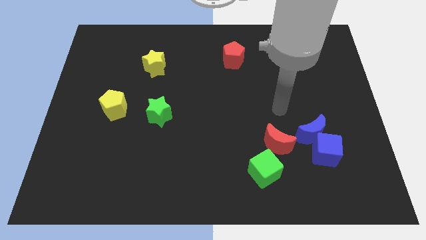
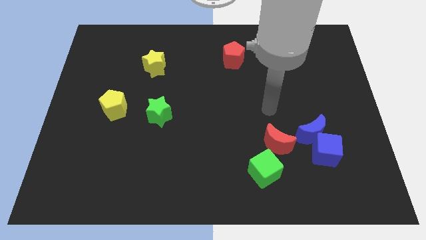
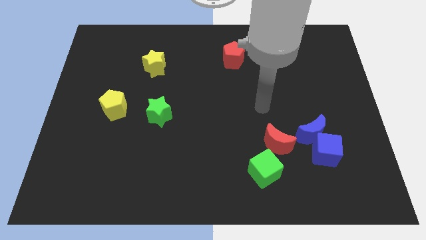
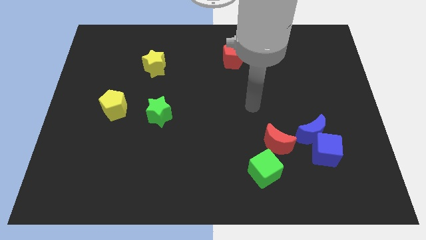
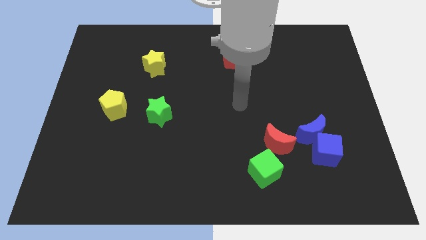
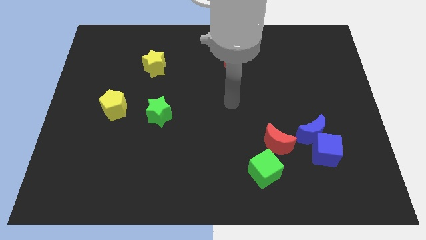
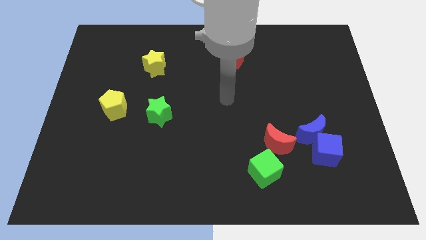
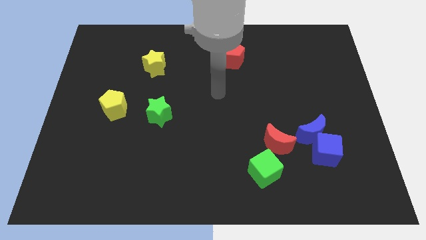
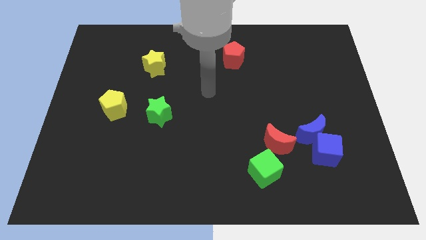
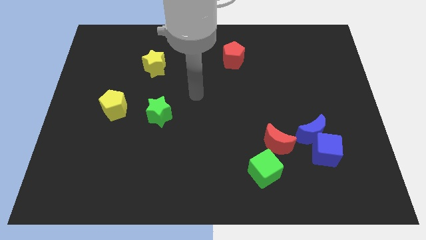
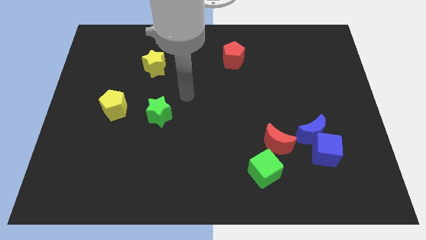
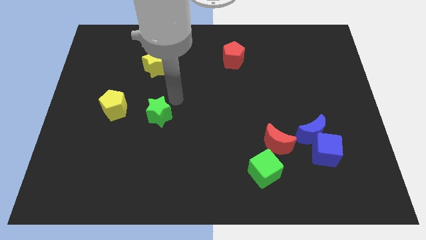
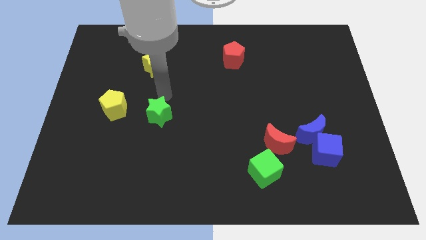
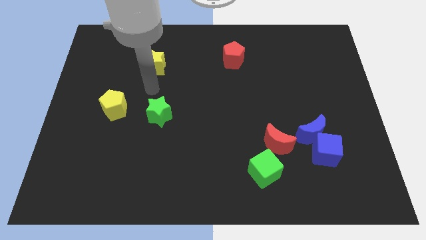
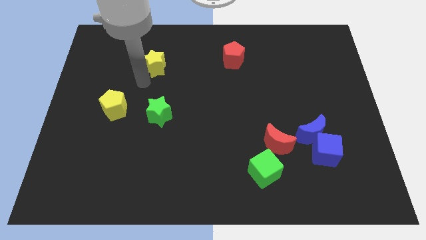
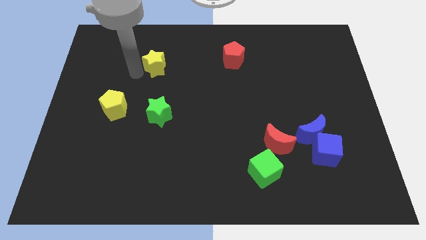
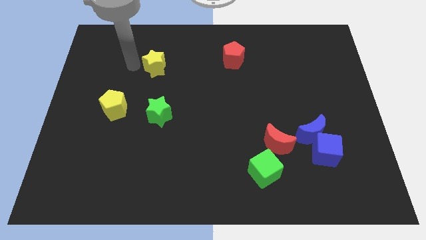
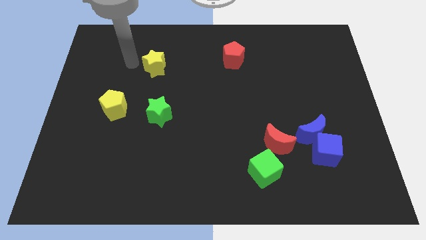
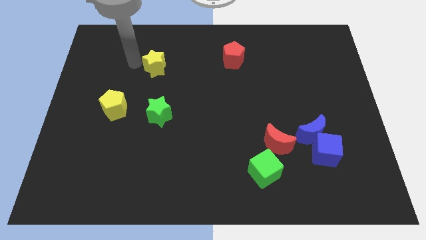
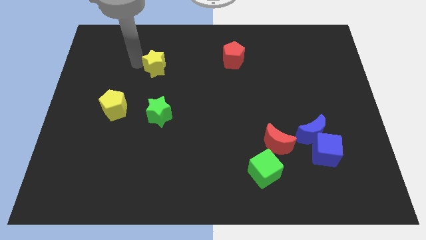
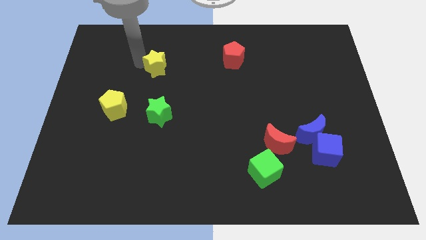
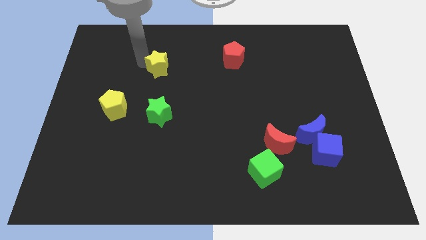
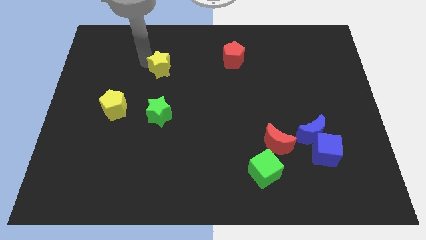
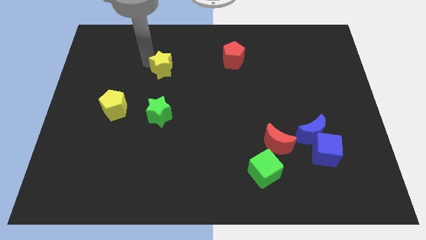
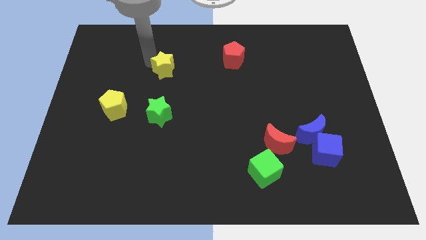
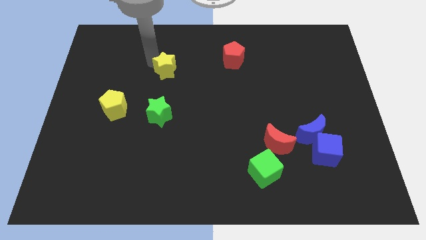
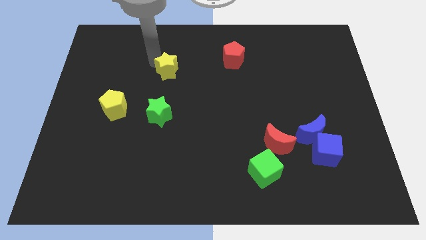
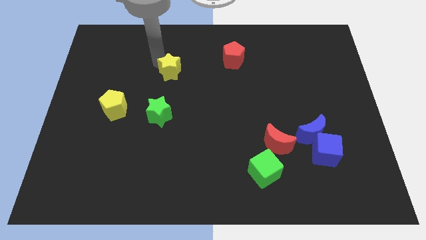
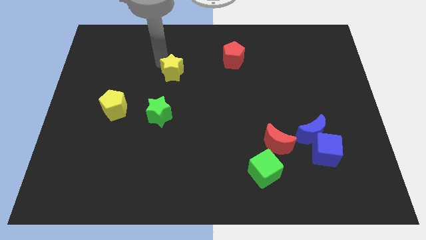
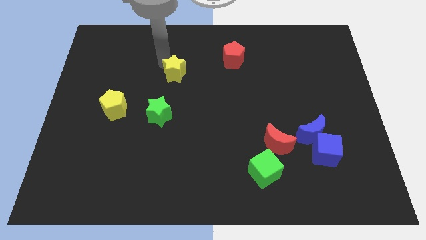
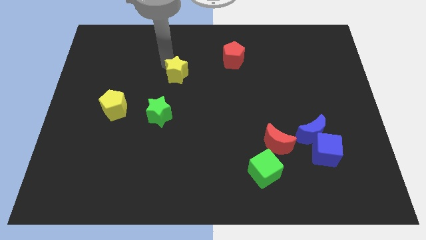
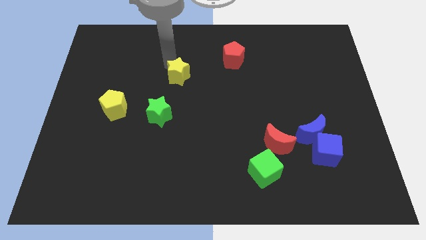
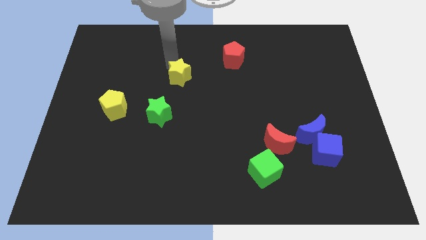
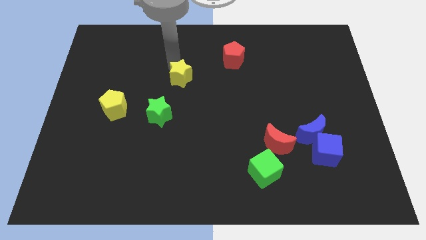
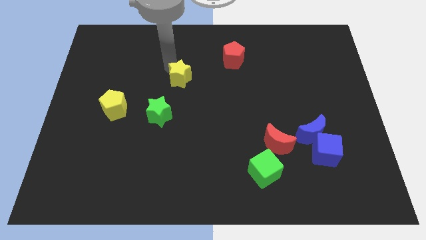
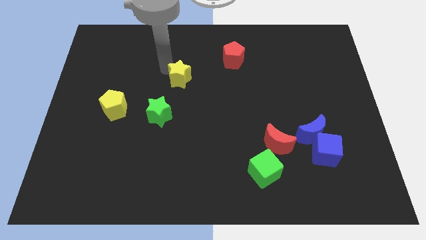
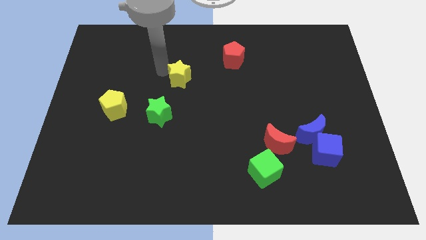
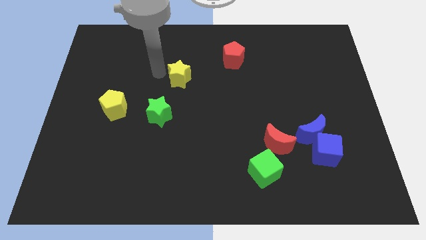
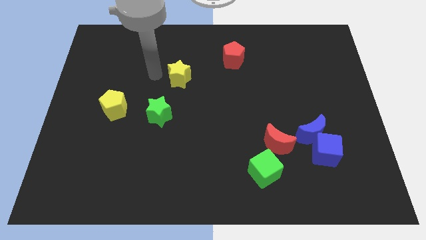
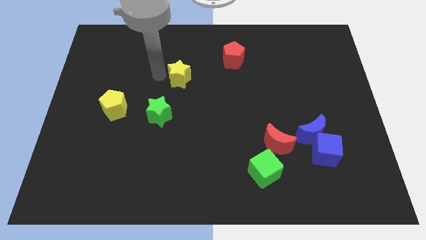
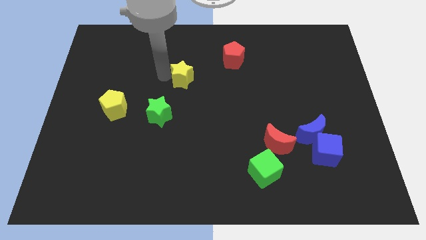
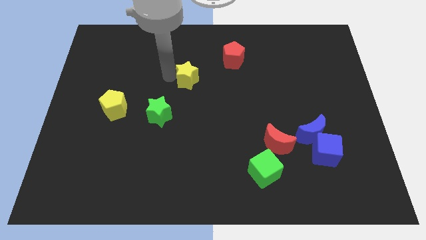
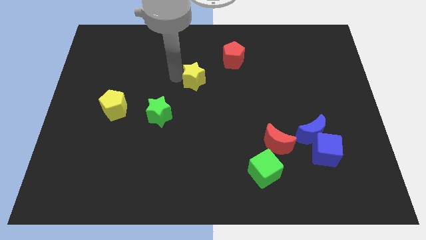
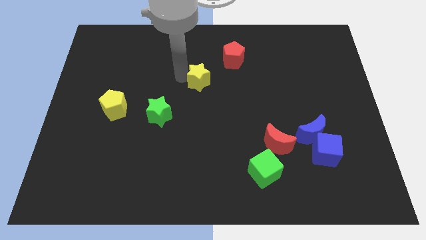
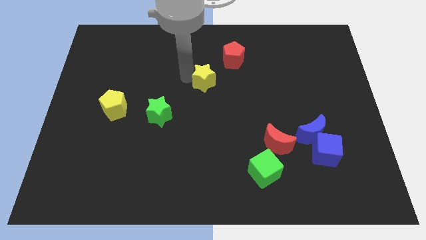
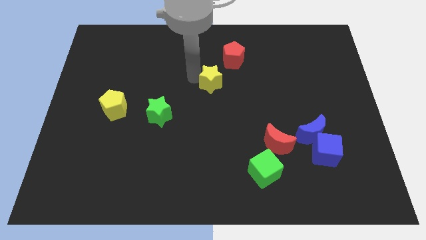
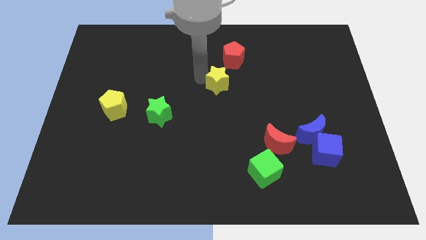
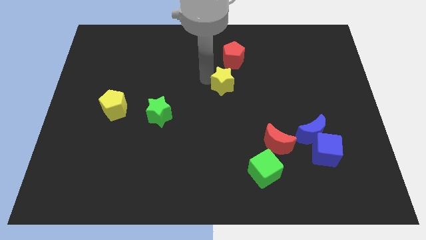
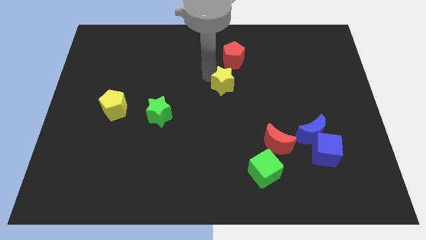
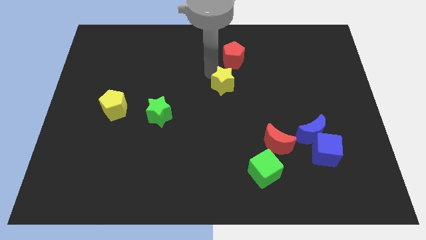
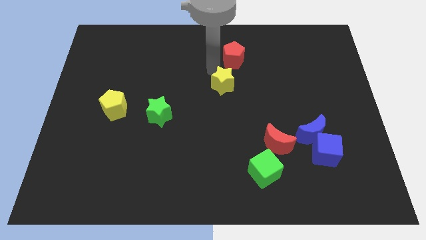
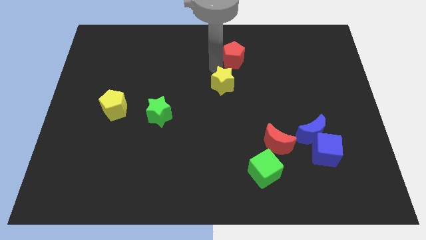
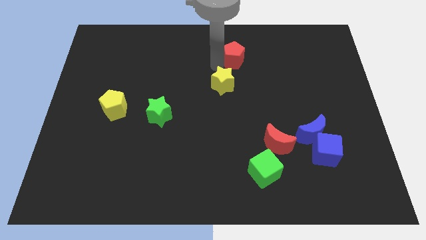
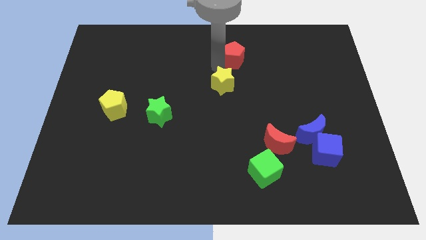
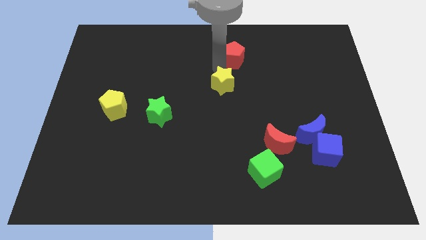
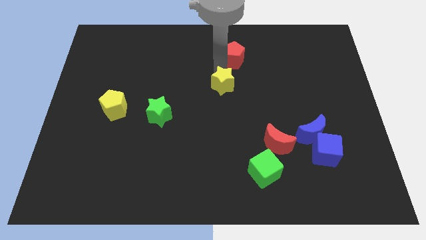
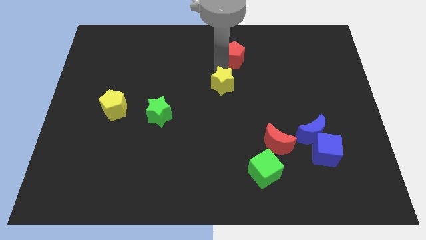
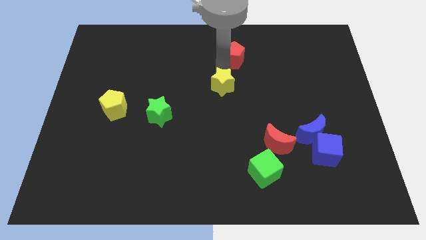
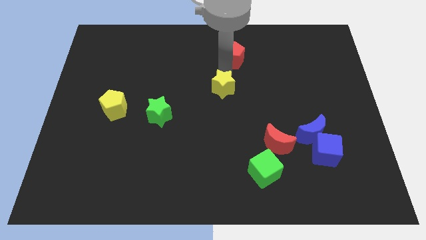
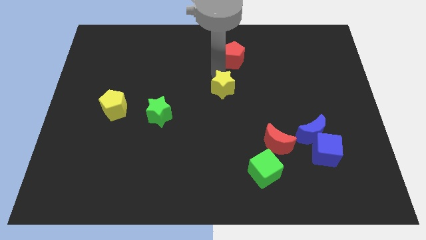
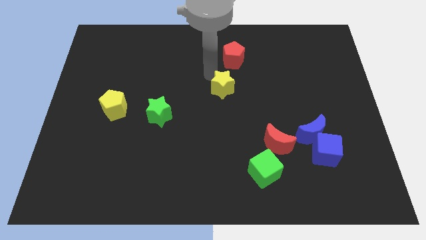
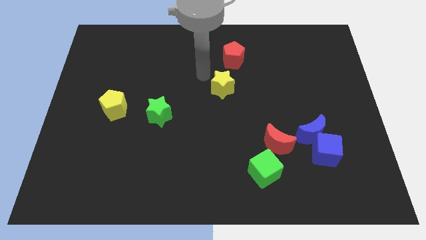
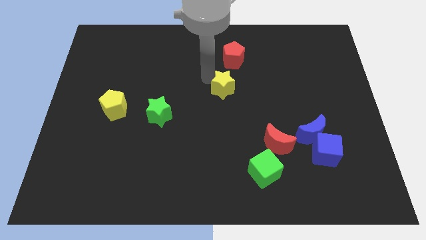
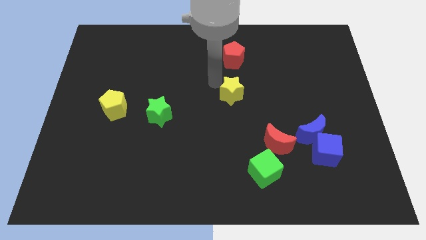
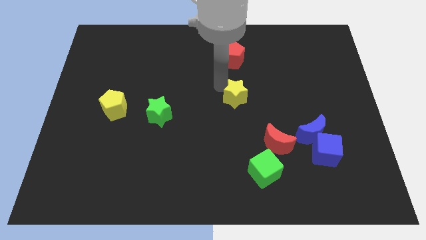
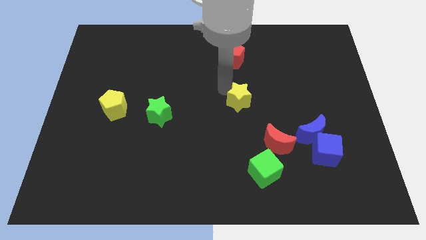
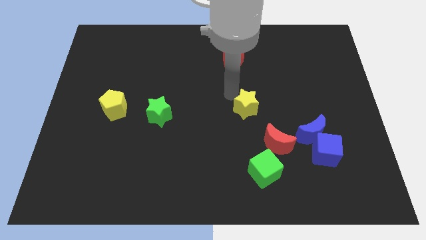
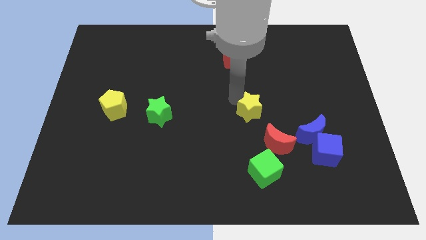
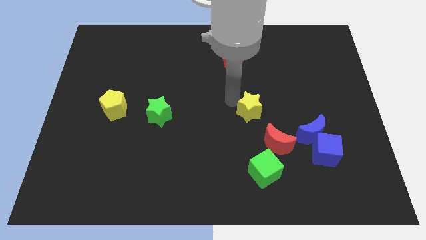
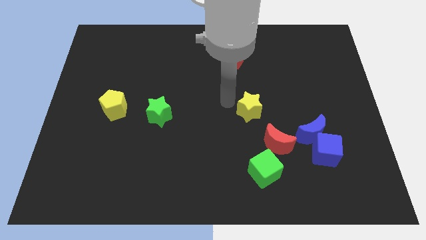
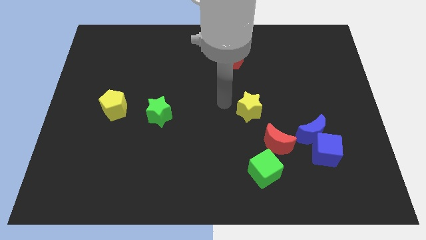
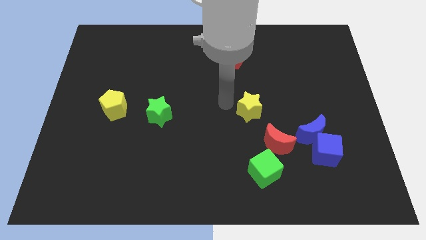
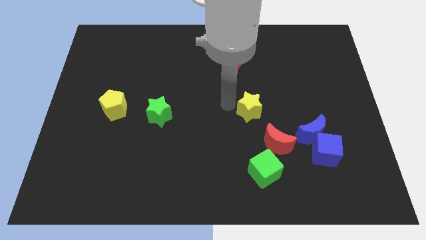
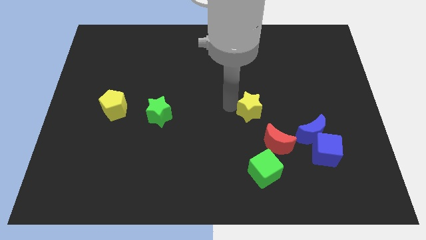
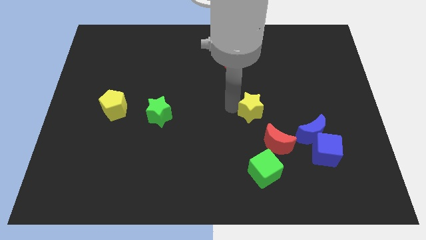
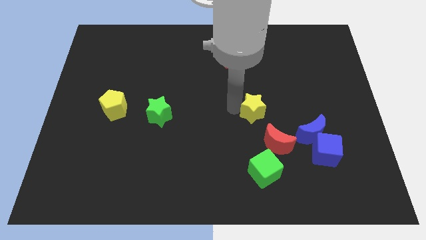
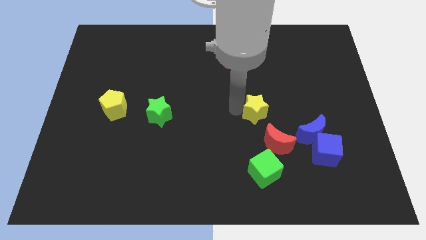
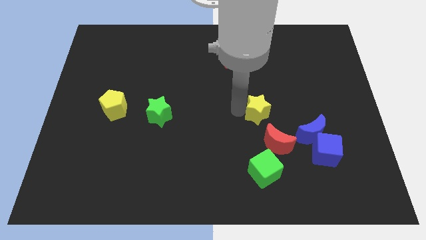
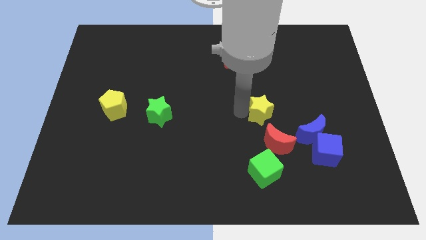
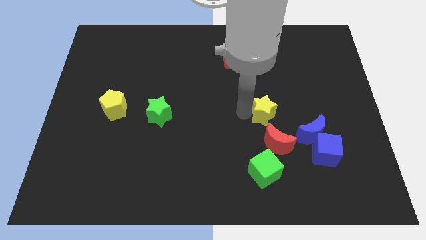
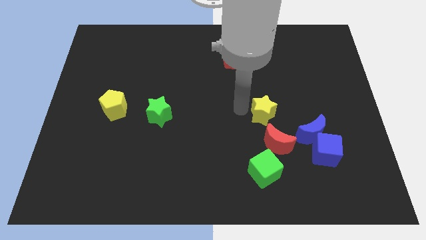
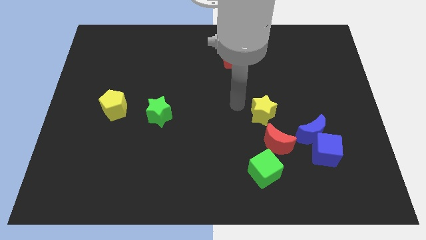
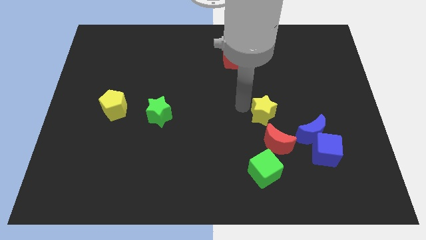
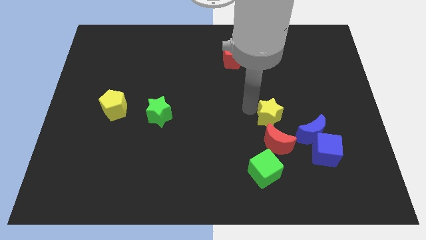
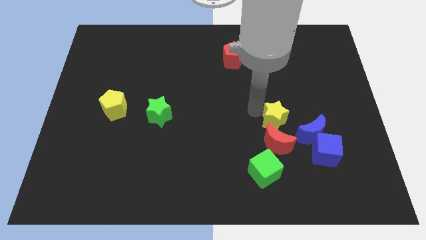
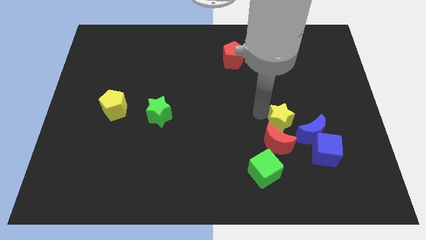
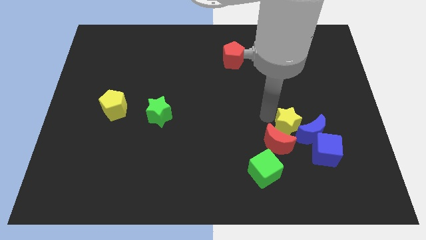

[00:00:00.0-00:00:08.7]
move the yellow star to the blue moon

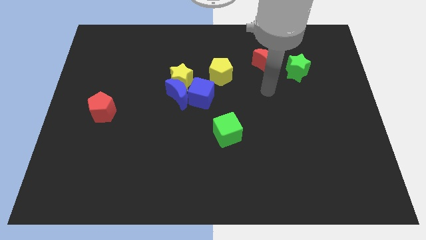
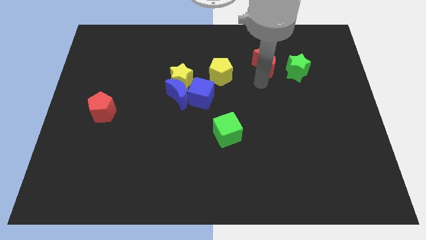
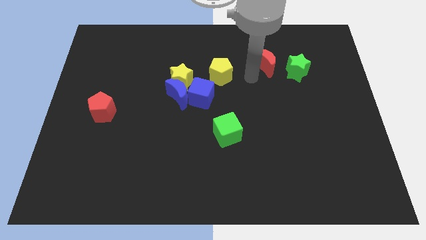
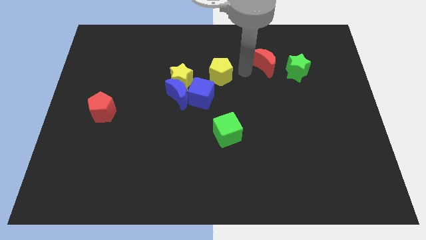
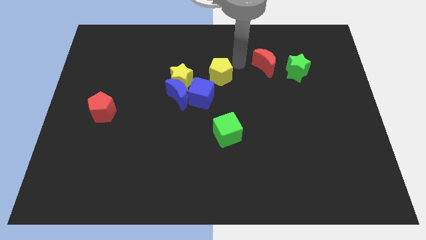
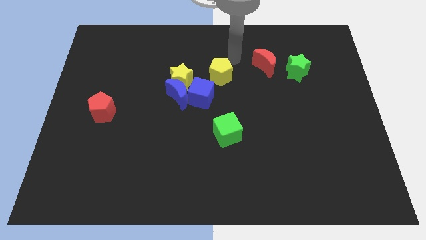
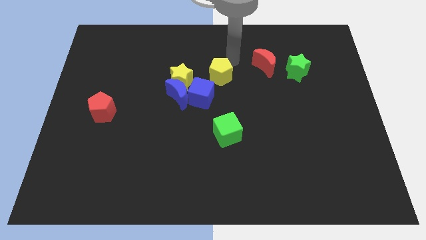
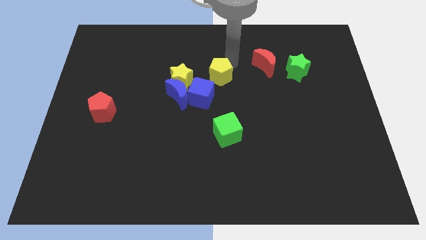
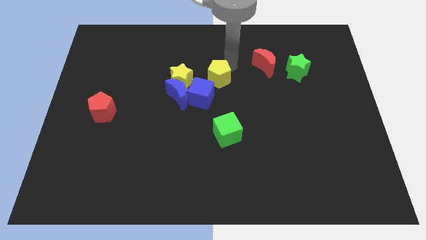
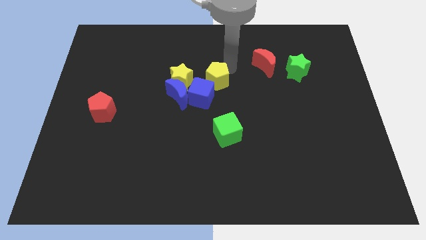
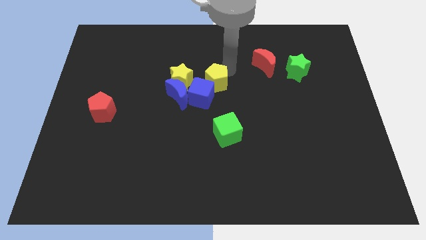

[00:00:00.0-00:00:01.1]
move the yellow pentagon towards the blue cube
